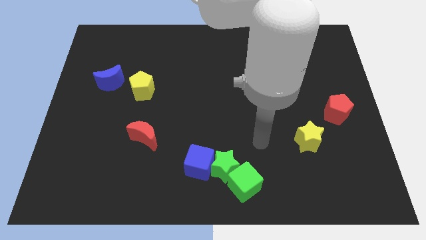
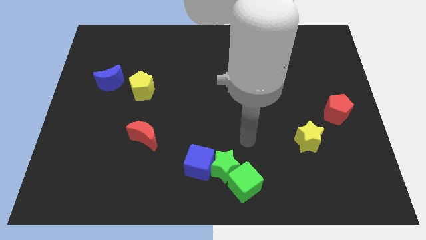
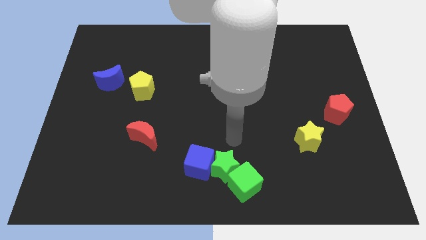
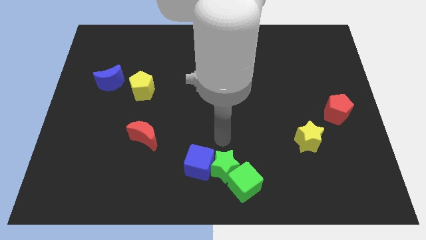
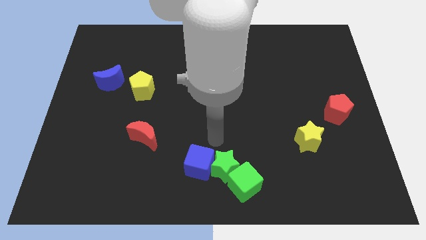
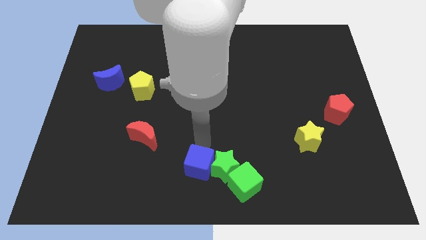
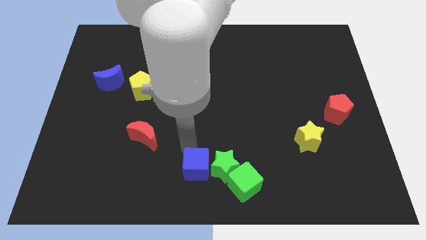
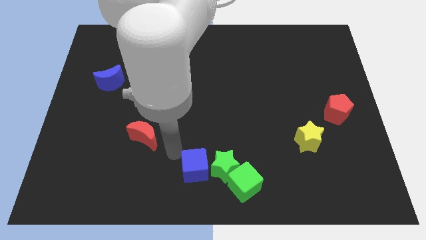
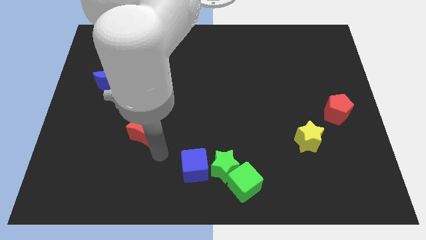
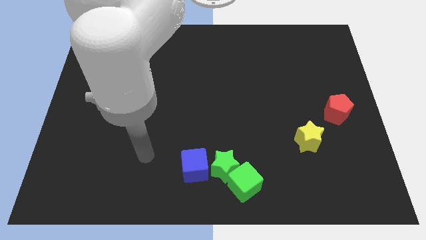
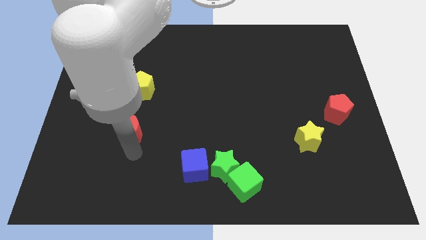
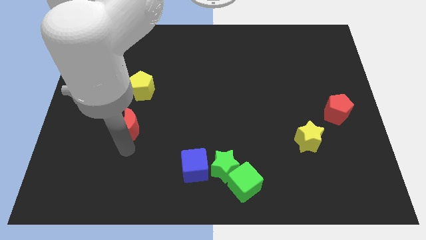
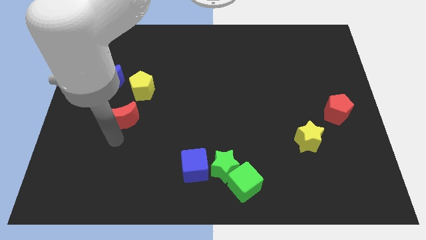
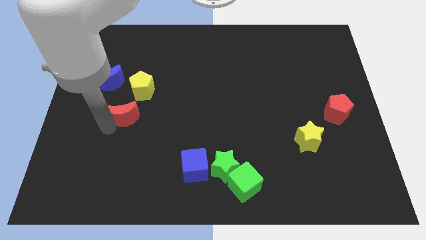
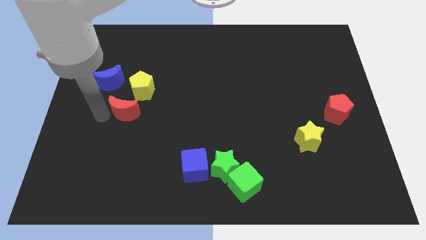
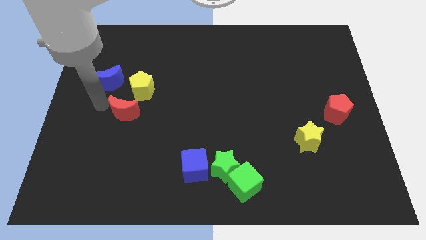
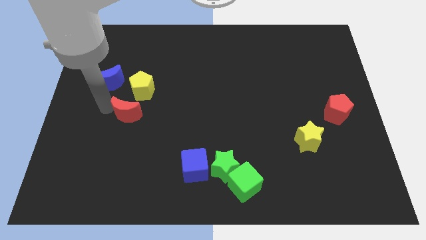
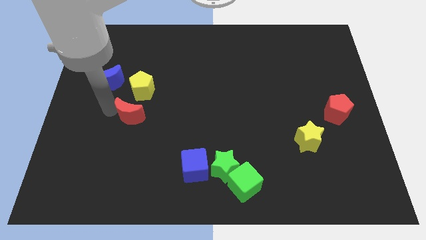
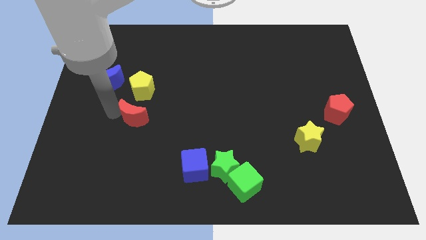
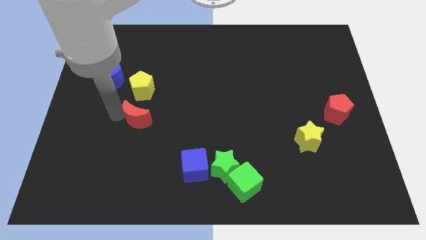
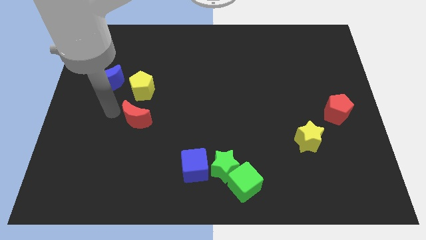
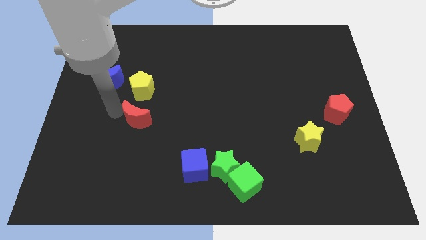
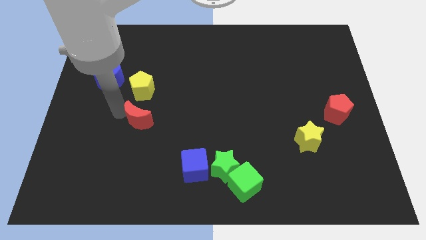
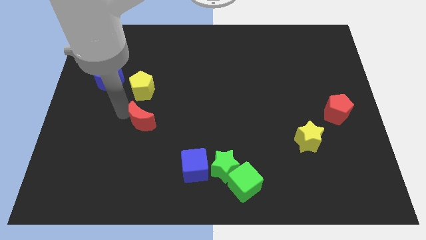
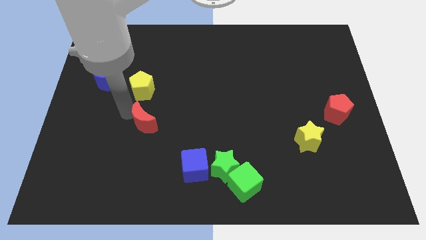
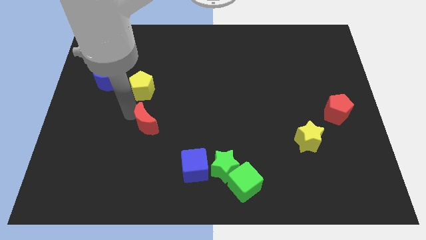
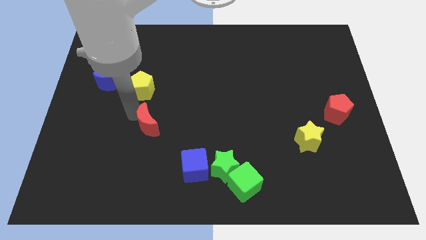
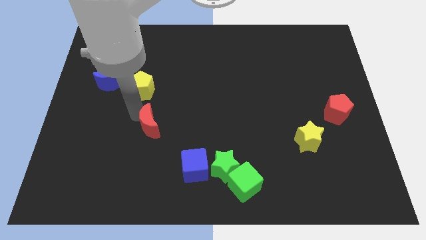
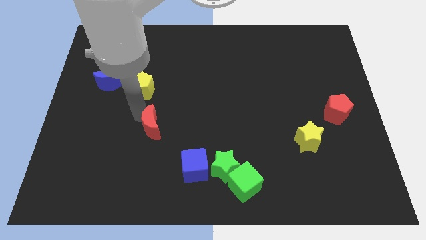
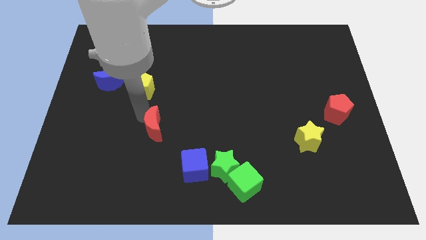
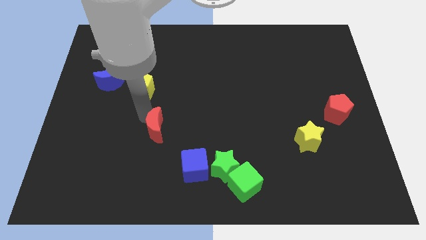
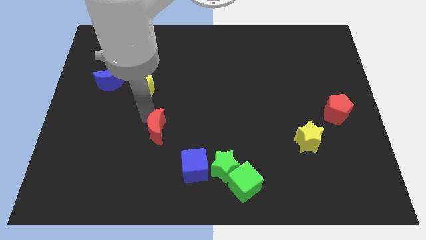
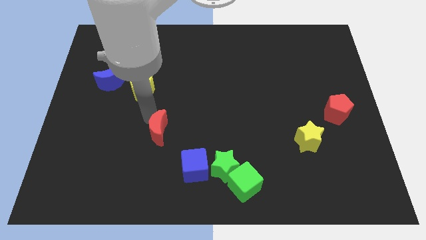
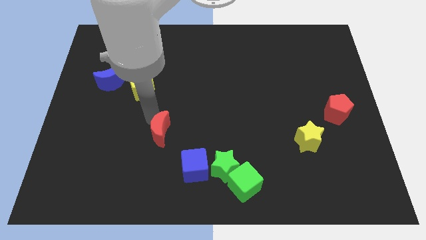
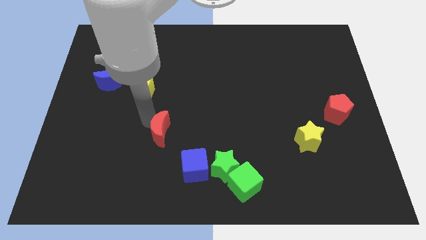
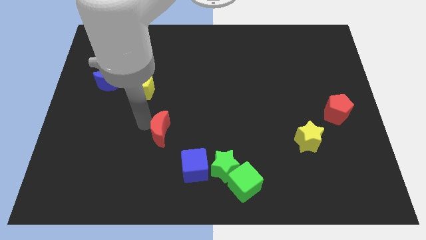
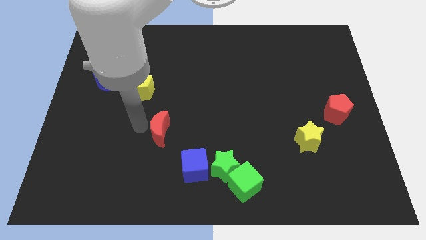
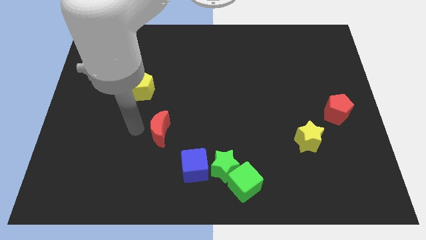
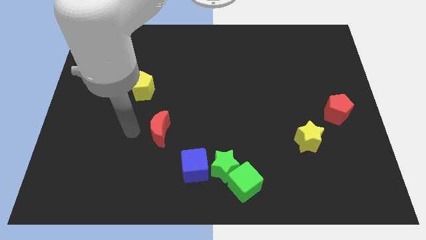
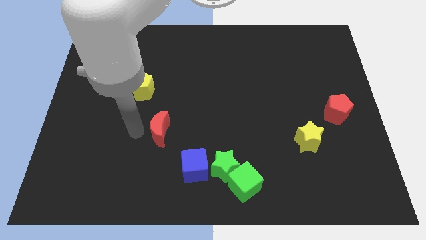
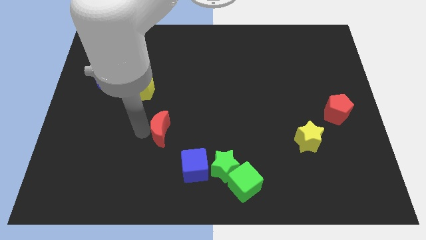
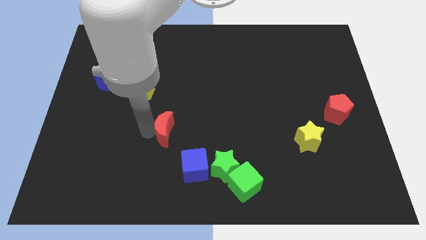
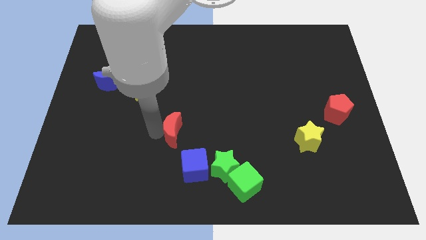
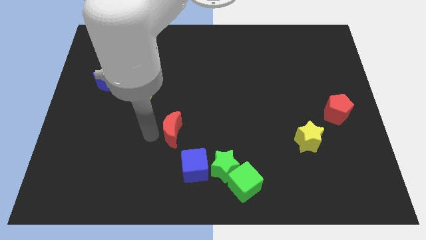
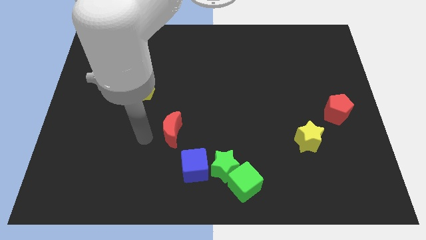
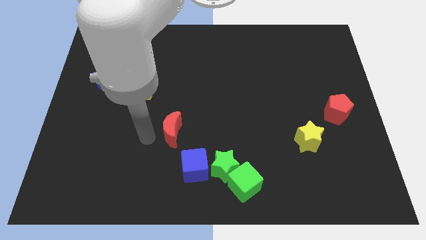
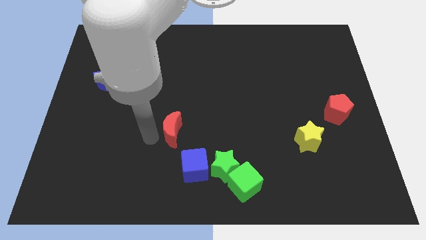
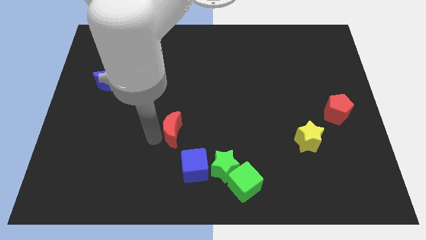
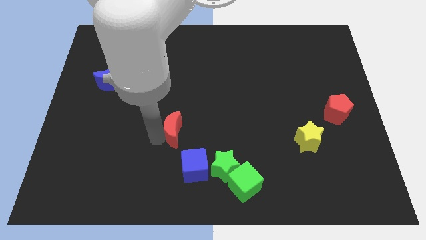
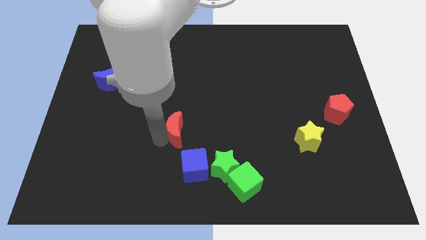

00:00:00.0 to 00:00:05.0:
slide the red moon above the blue cube

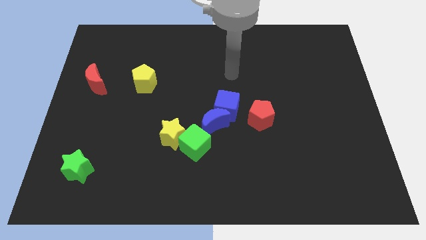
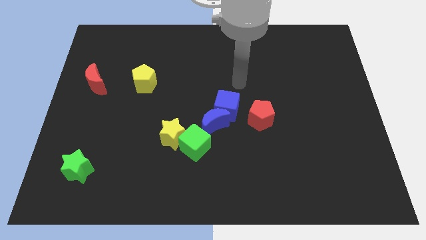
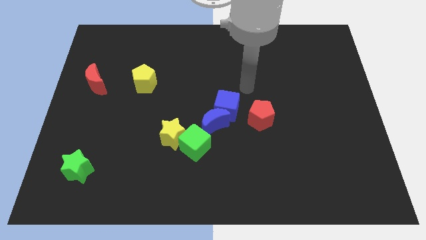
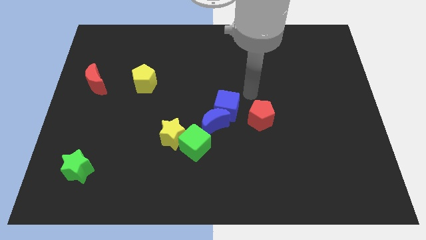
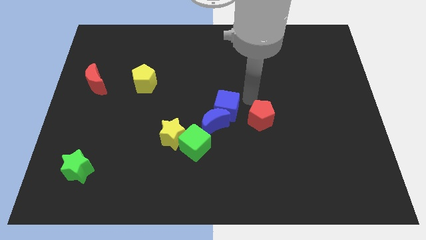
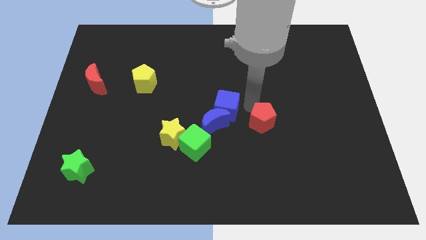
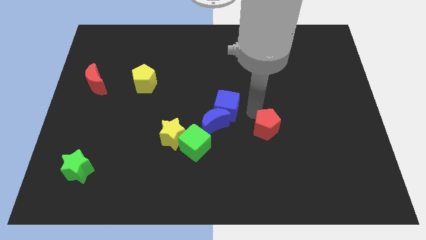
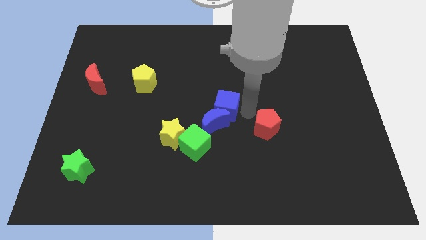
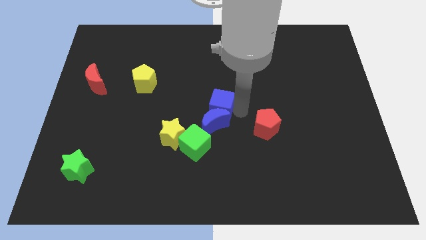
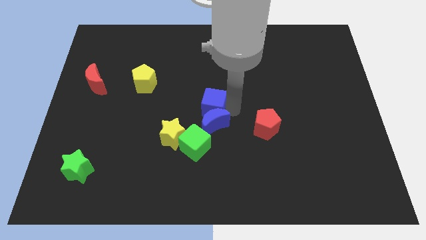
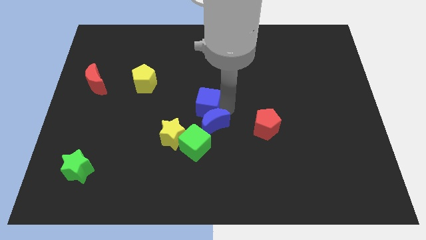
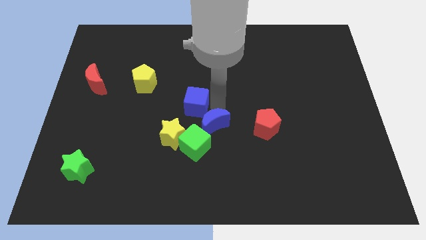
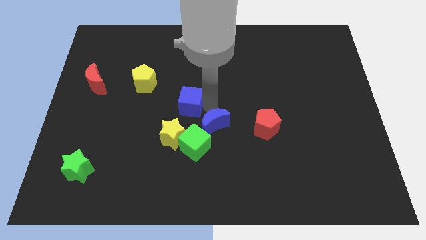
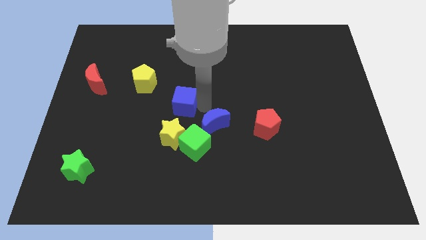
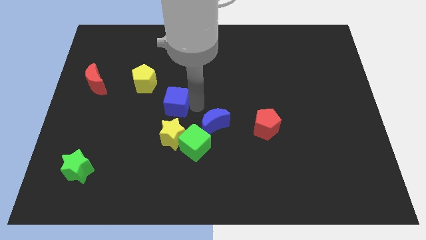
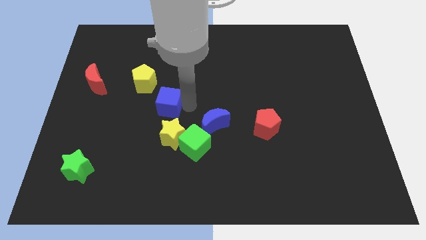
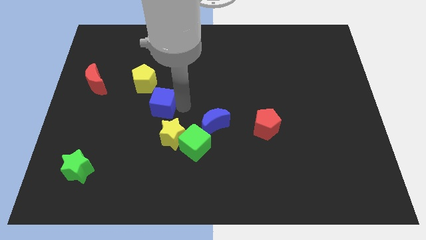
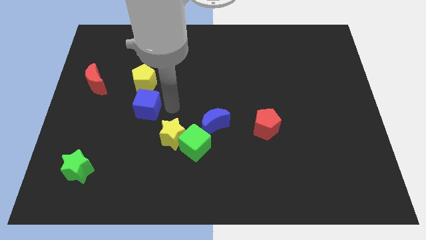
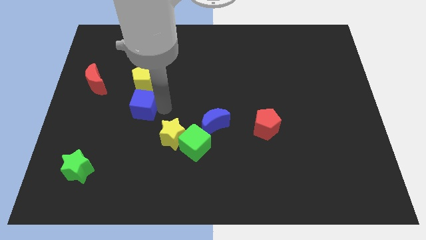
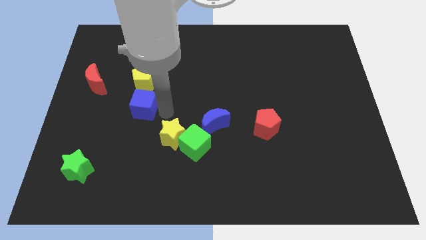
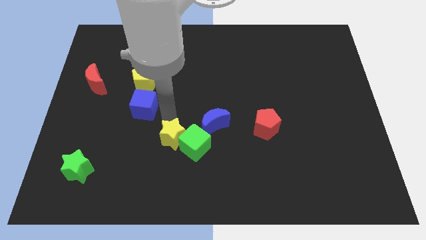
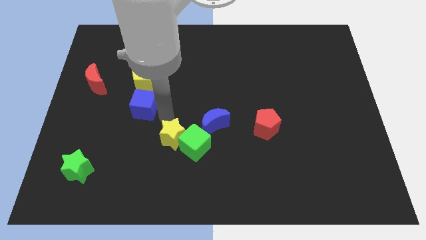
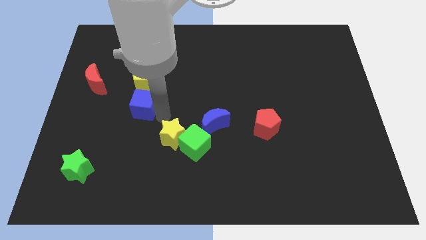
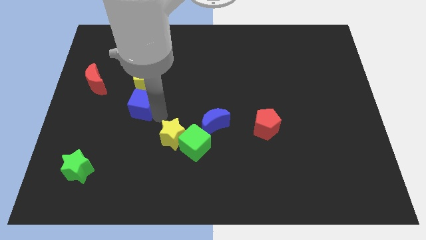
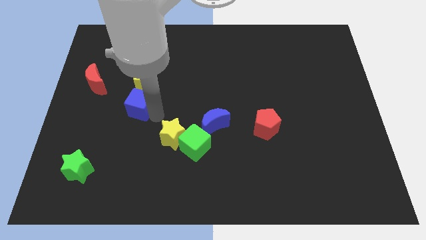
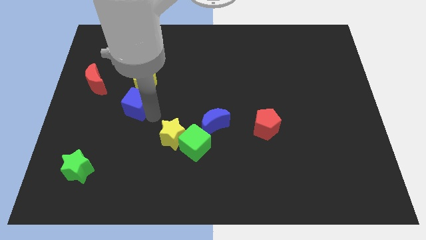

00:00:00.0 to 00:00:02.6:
slide the blue cube to the bottom left of the yellow pentagon

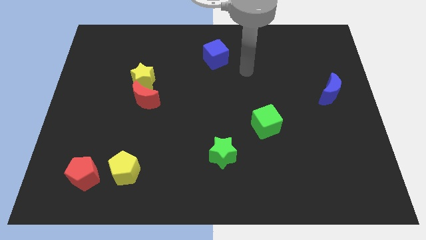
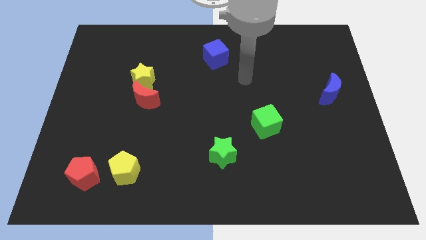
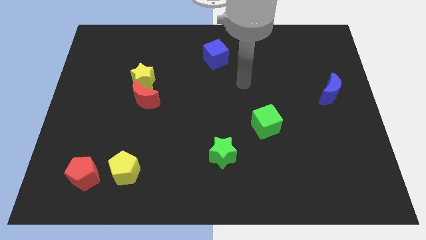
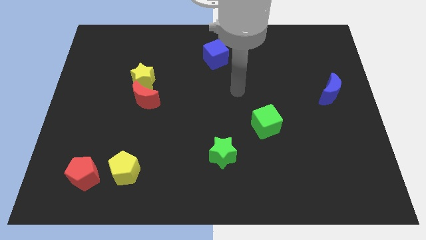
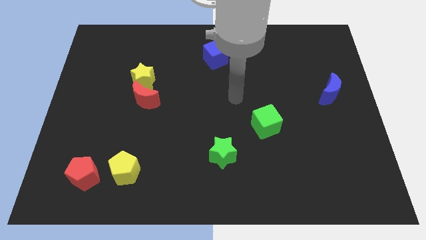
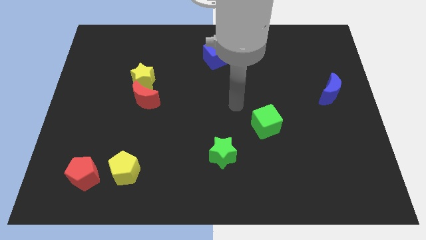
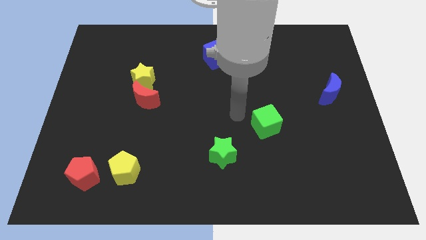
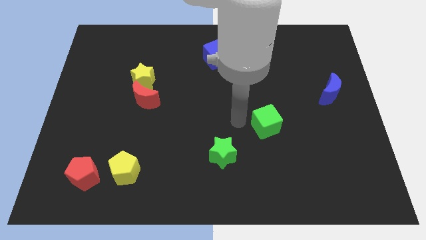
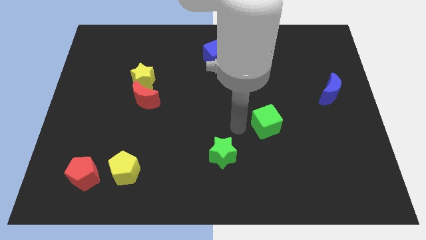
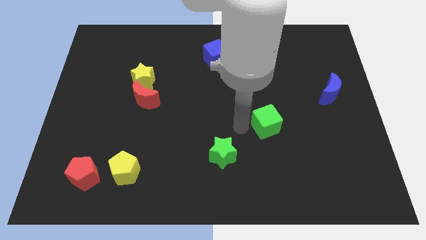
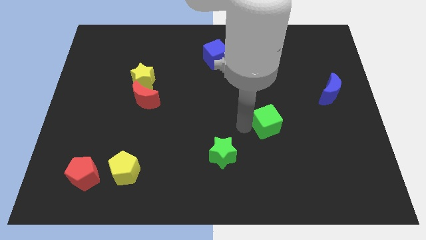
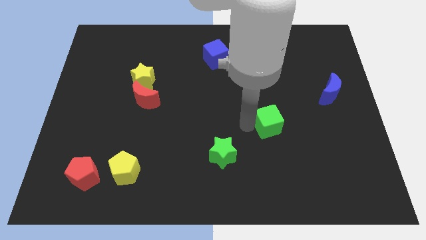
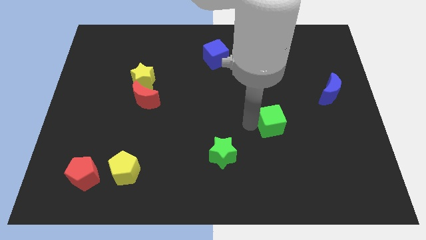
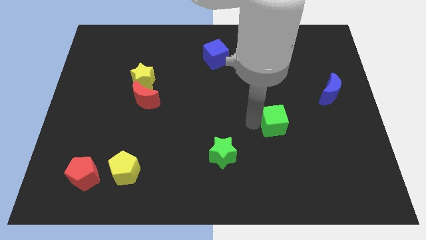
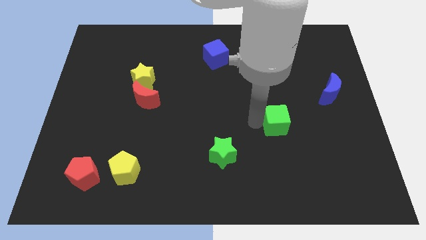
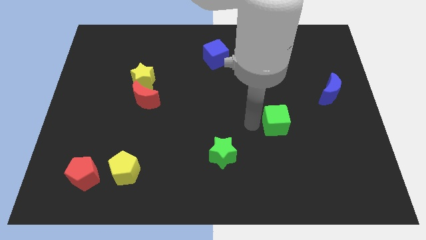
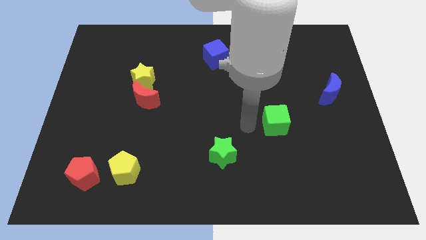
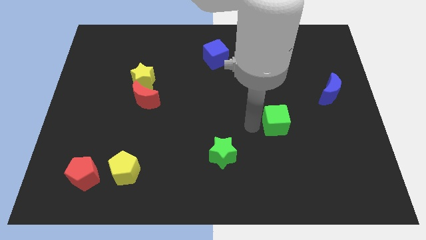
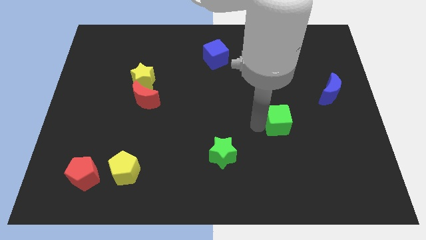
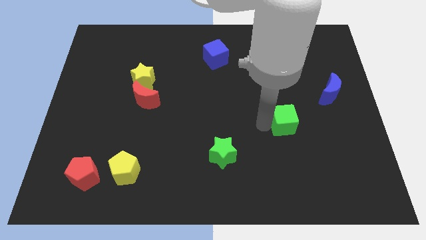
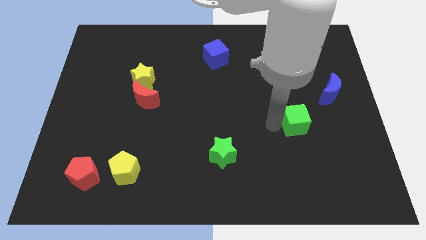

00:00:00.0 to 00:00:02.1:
slide the green cube to the bottom left side of the blue moon
